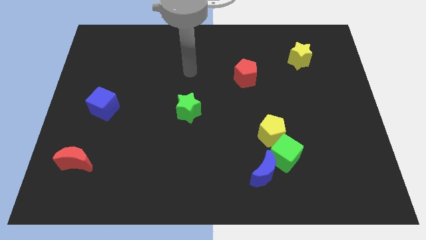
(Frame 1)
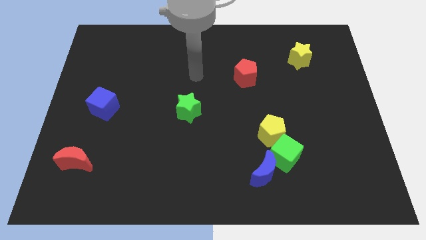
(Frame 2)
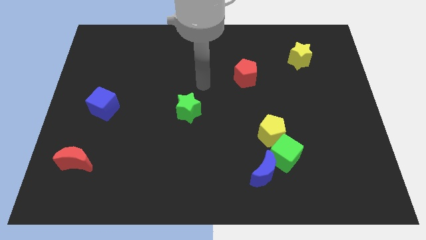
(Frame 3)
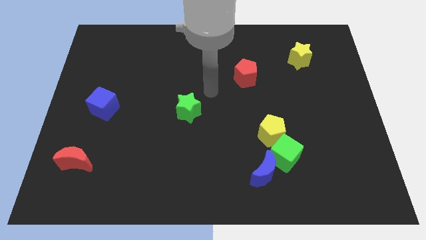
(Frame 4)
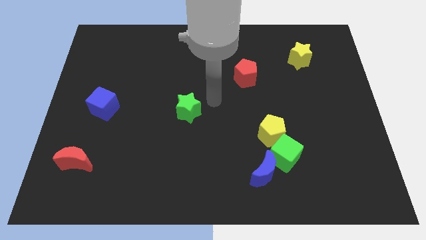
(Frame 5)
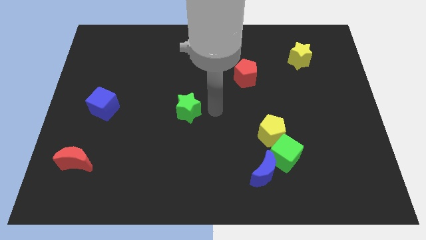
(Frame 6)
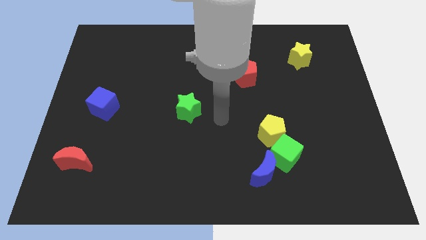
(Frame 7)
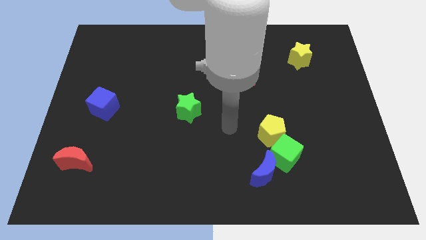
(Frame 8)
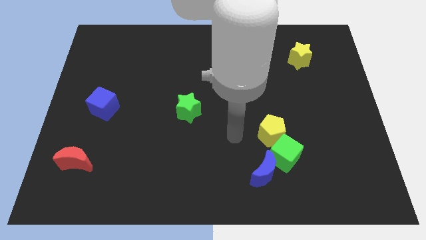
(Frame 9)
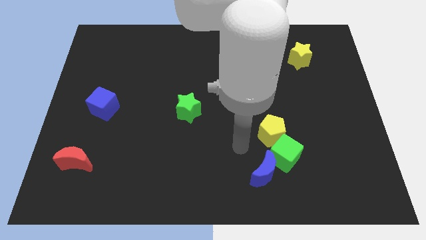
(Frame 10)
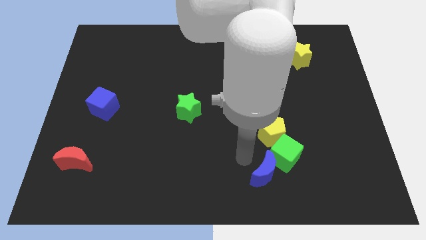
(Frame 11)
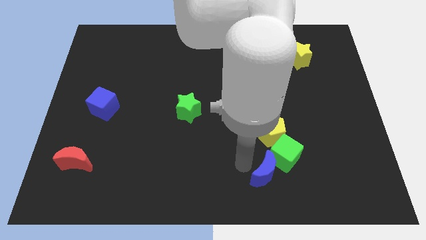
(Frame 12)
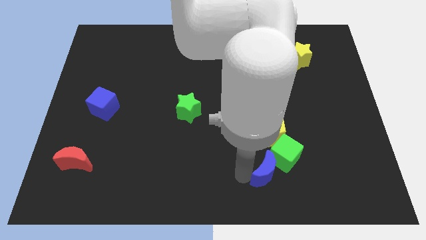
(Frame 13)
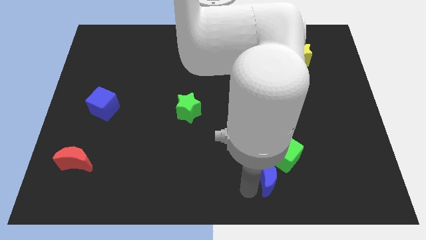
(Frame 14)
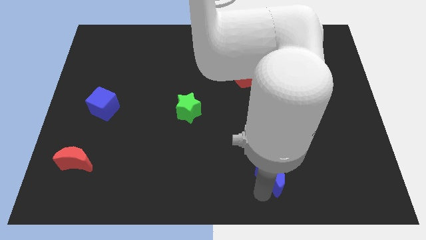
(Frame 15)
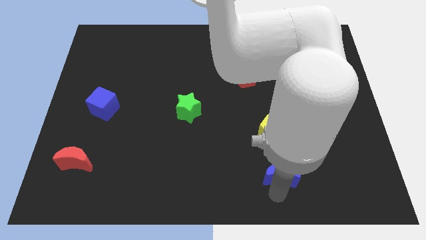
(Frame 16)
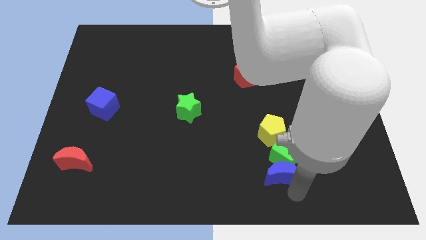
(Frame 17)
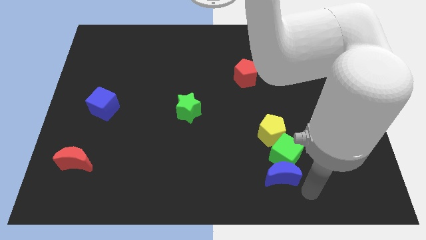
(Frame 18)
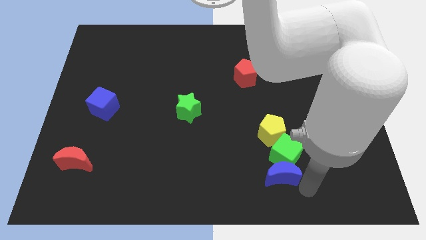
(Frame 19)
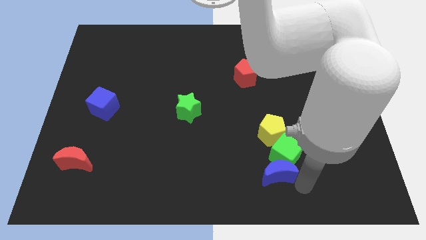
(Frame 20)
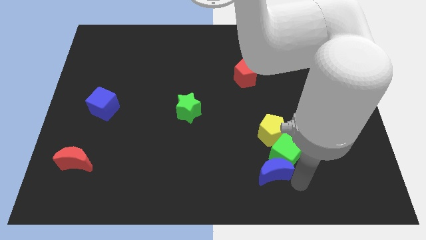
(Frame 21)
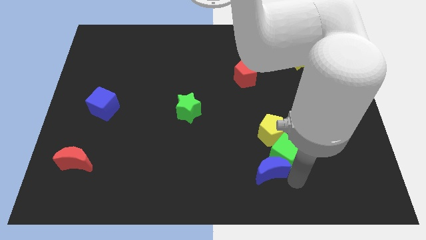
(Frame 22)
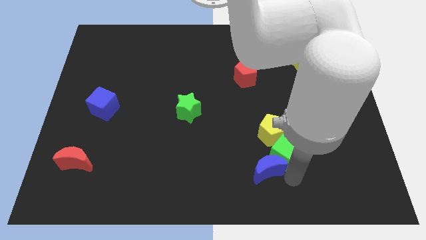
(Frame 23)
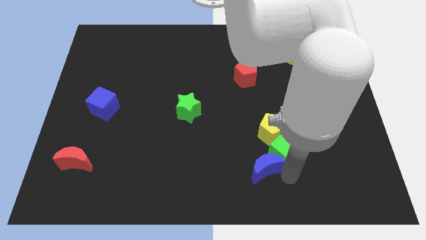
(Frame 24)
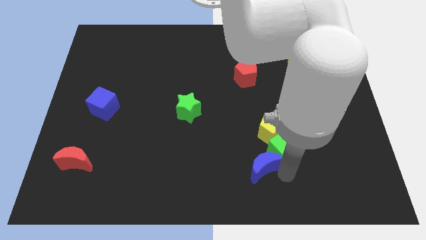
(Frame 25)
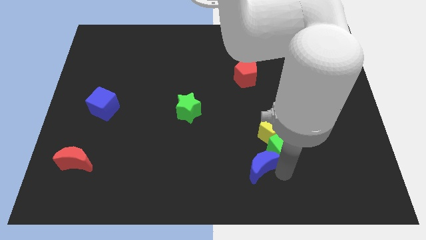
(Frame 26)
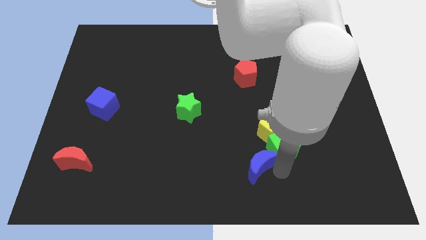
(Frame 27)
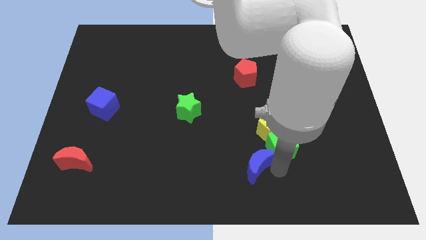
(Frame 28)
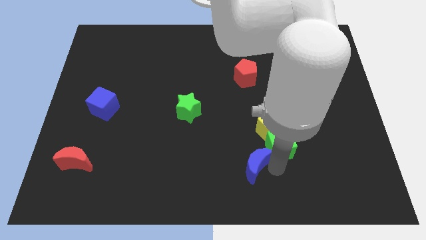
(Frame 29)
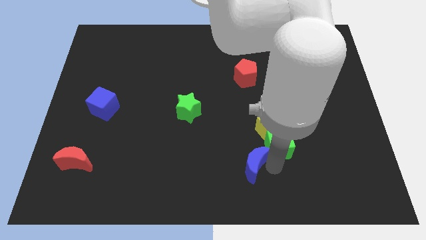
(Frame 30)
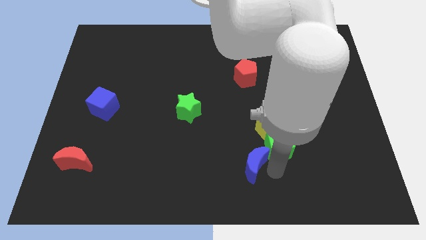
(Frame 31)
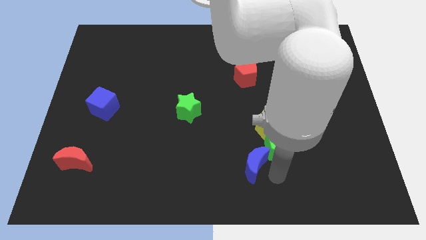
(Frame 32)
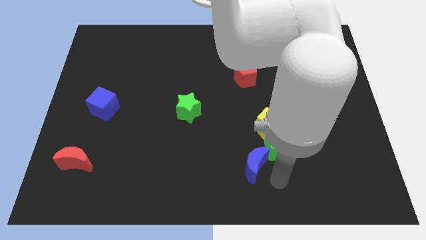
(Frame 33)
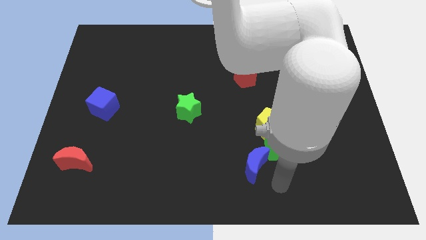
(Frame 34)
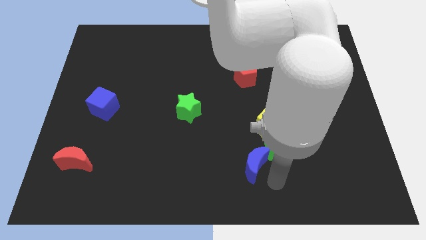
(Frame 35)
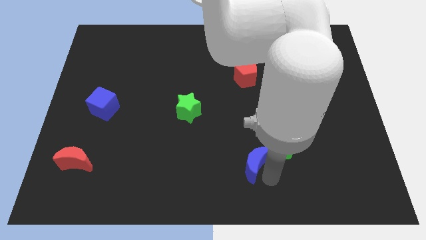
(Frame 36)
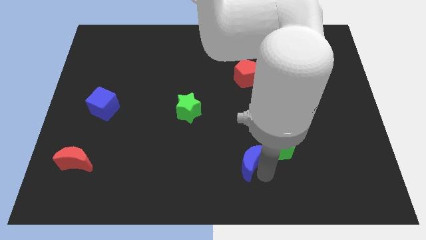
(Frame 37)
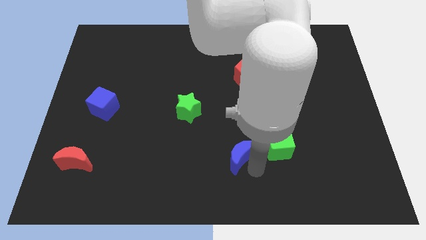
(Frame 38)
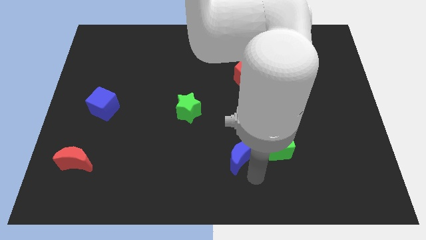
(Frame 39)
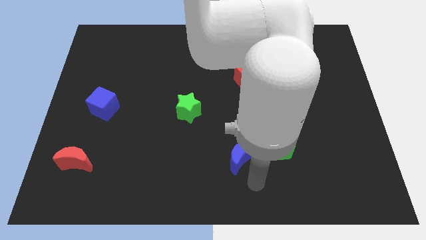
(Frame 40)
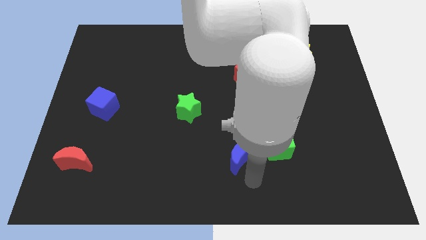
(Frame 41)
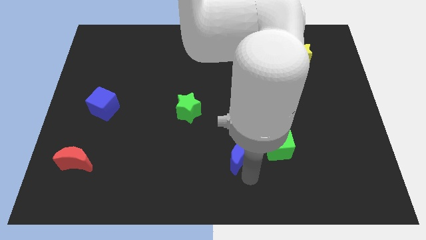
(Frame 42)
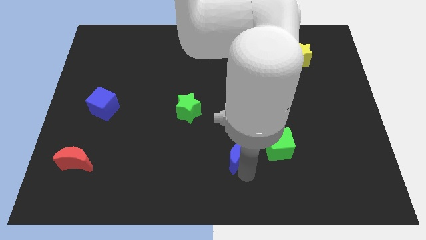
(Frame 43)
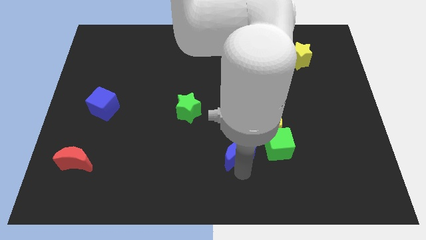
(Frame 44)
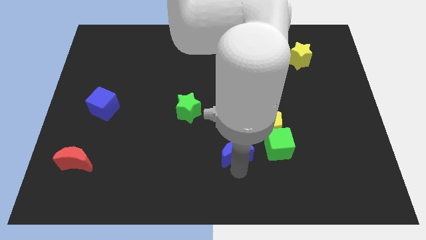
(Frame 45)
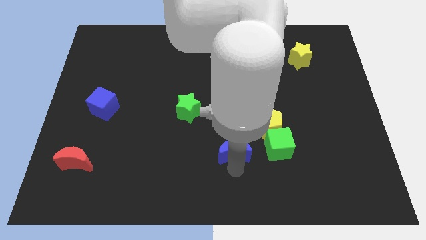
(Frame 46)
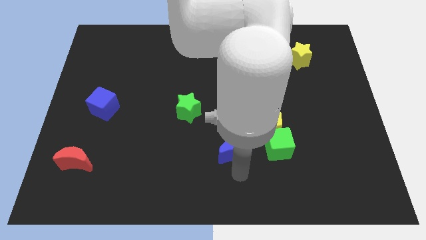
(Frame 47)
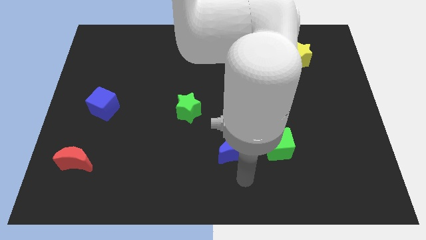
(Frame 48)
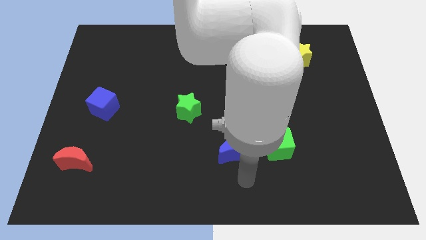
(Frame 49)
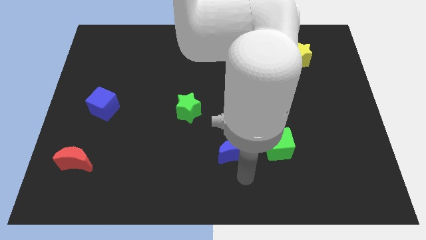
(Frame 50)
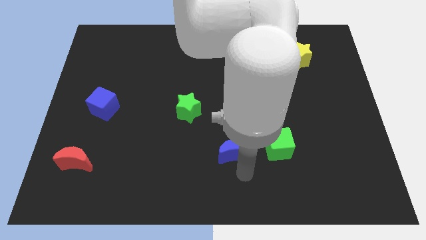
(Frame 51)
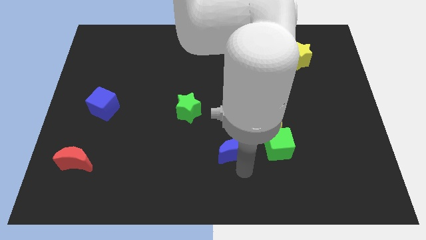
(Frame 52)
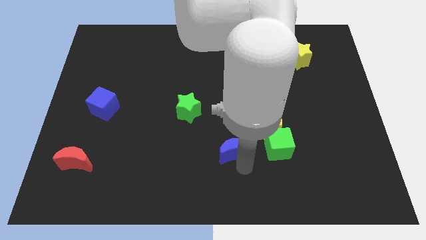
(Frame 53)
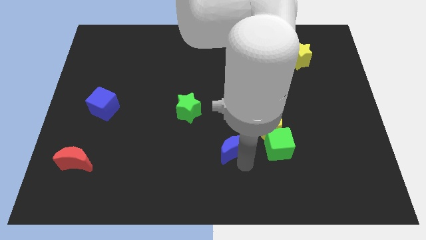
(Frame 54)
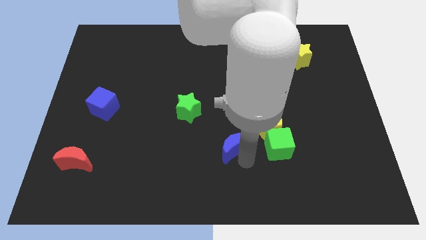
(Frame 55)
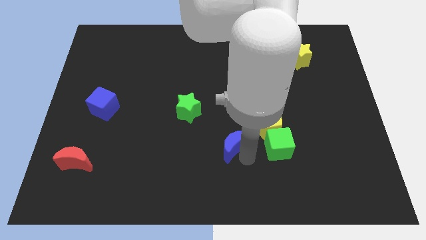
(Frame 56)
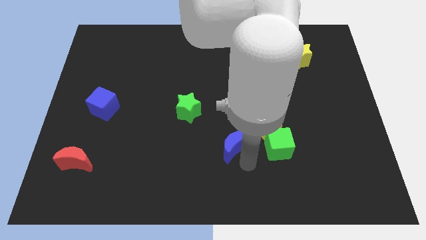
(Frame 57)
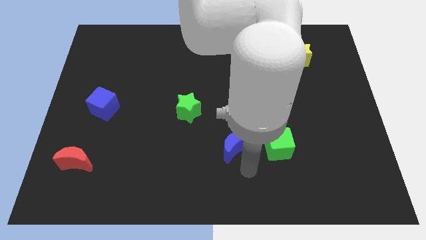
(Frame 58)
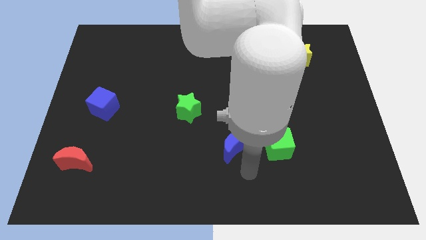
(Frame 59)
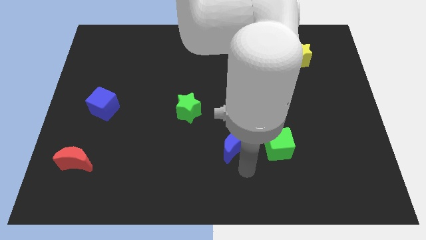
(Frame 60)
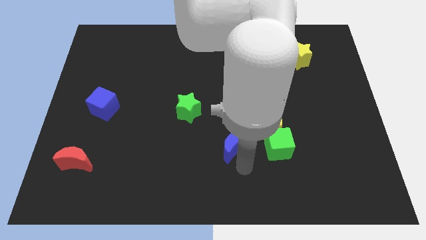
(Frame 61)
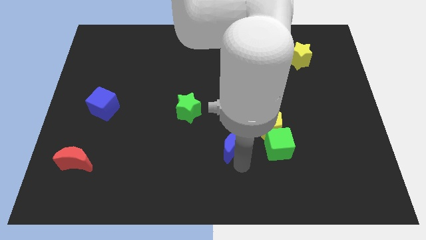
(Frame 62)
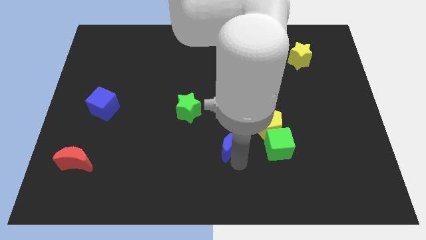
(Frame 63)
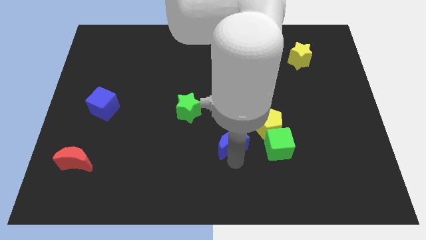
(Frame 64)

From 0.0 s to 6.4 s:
slide the blue moon to the left of the yellow pentagon

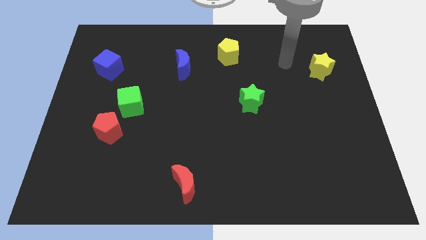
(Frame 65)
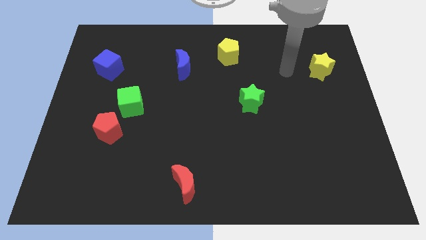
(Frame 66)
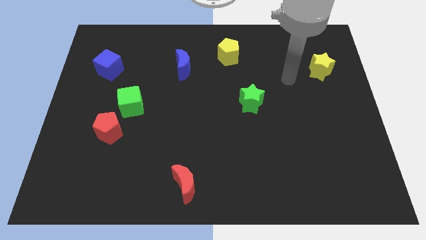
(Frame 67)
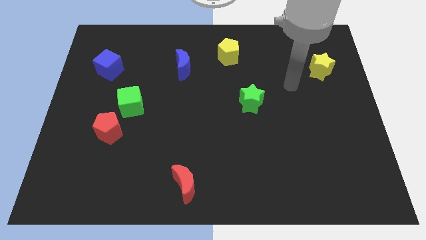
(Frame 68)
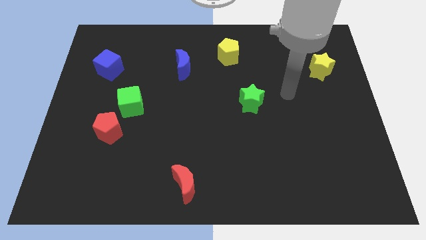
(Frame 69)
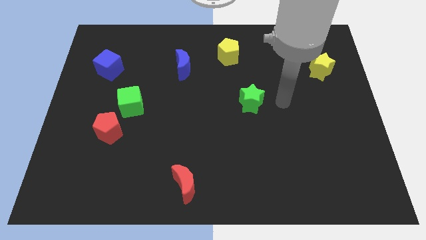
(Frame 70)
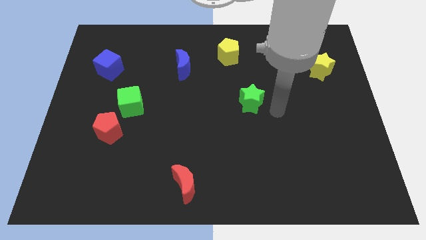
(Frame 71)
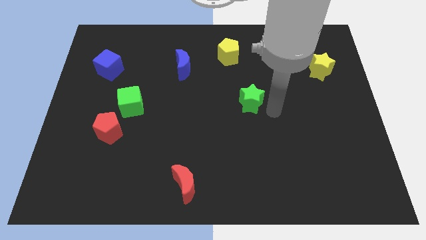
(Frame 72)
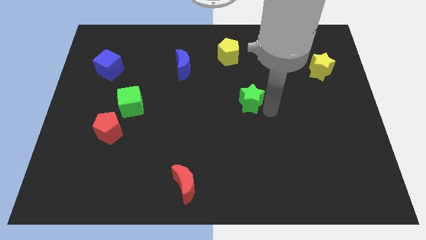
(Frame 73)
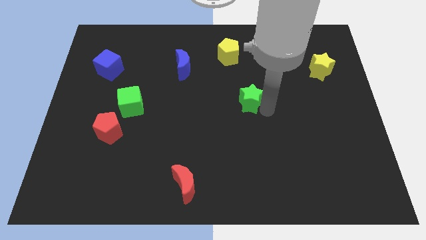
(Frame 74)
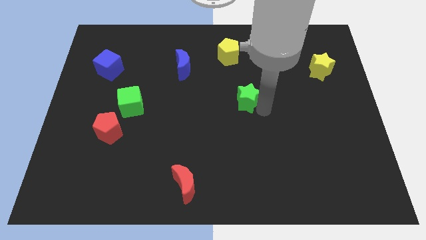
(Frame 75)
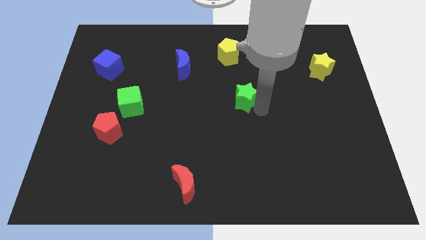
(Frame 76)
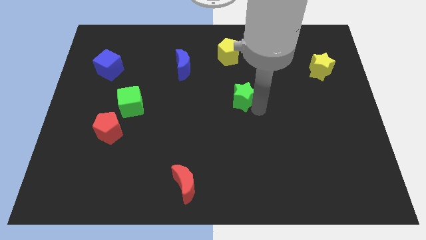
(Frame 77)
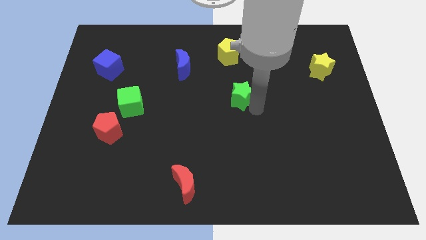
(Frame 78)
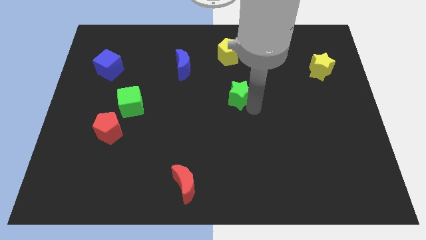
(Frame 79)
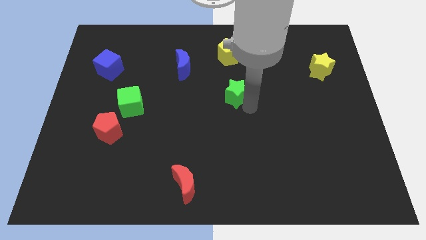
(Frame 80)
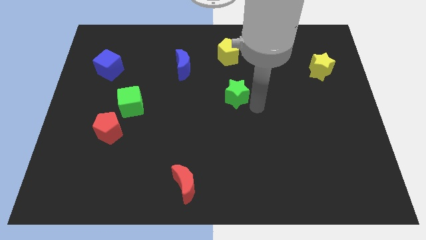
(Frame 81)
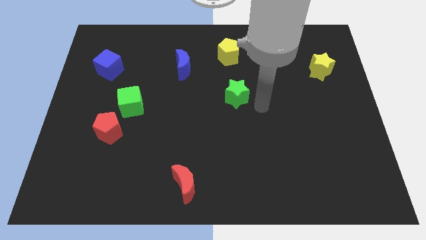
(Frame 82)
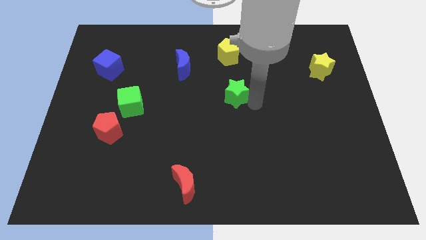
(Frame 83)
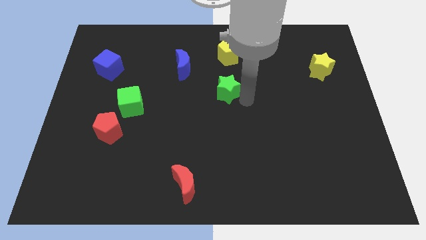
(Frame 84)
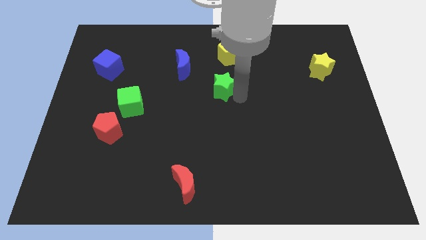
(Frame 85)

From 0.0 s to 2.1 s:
move the green star to the bottom right of the blue moon
